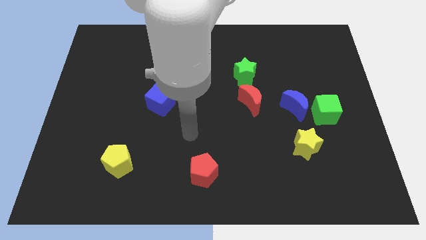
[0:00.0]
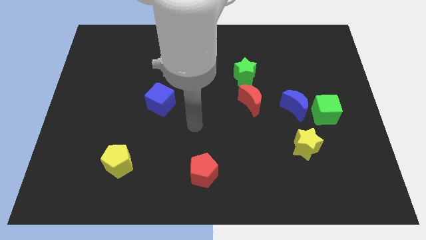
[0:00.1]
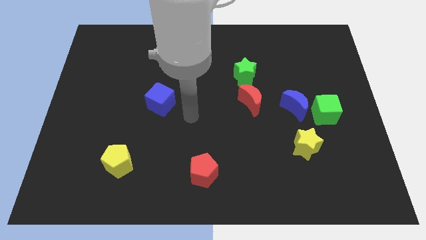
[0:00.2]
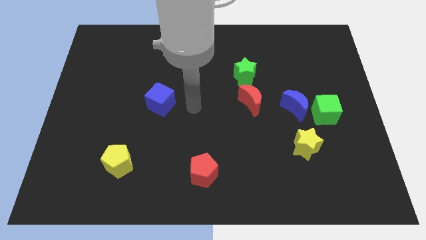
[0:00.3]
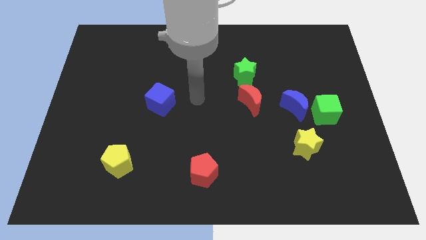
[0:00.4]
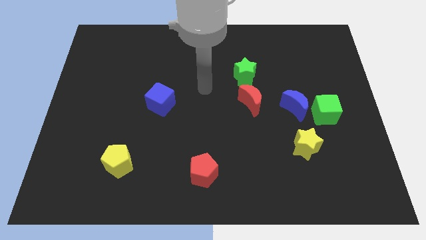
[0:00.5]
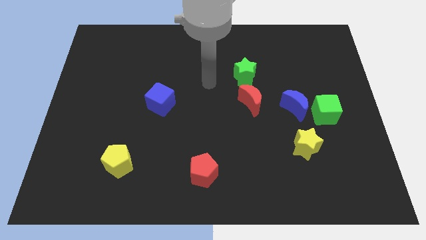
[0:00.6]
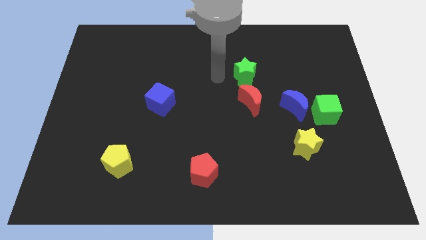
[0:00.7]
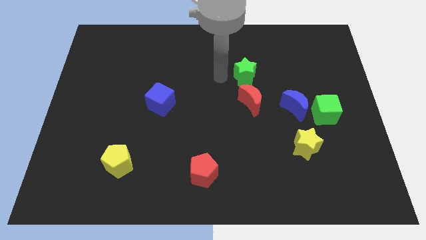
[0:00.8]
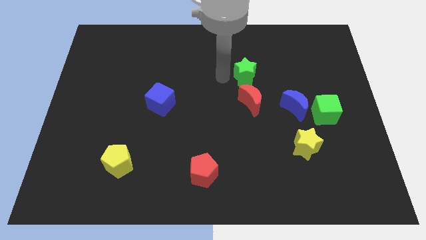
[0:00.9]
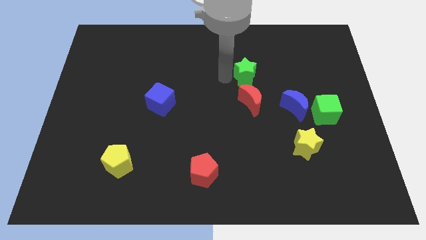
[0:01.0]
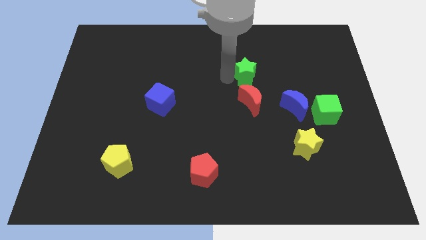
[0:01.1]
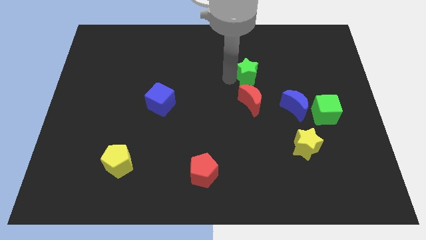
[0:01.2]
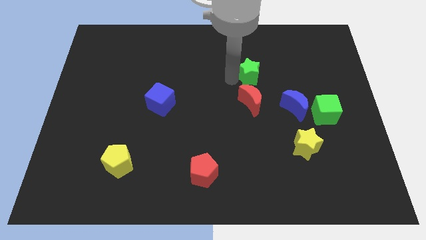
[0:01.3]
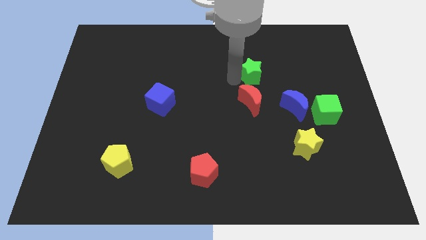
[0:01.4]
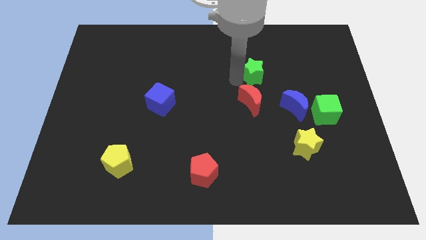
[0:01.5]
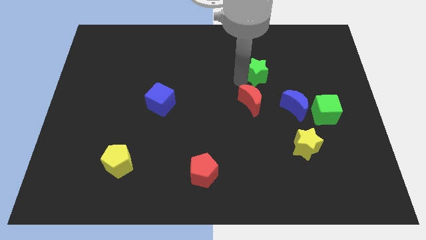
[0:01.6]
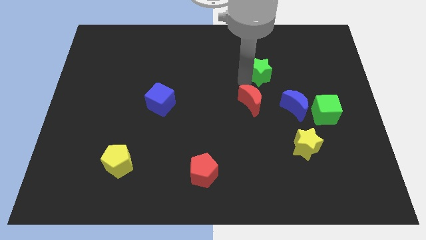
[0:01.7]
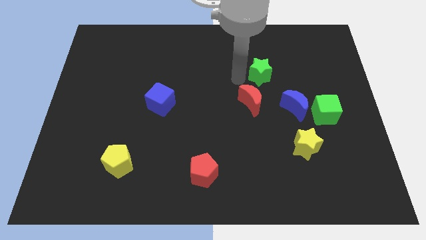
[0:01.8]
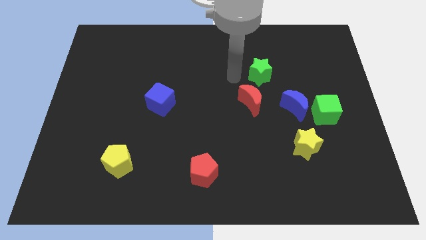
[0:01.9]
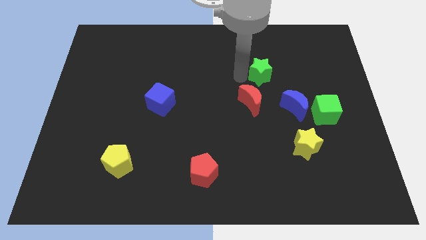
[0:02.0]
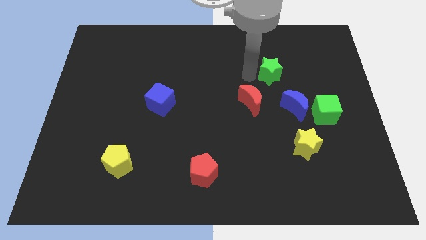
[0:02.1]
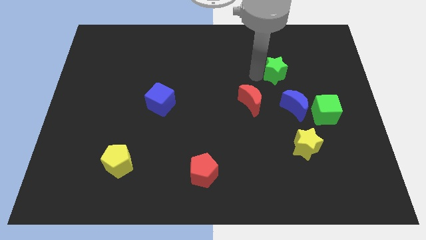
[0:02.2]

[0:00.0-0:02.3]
slide the green star a little bit to the right

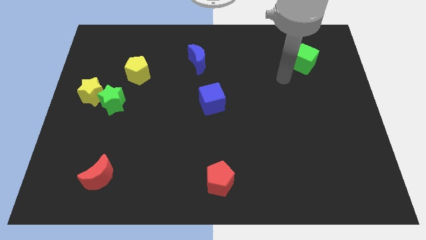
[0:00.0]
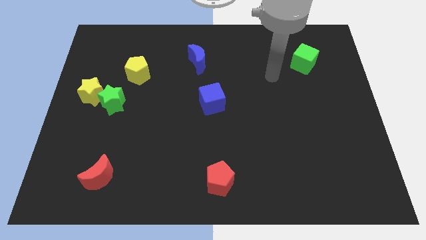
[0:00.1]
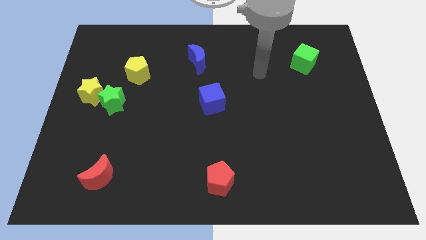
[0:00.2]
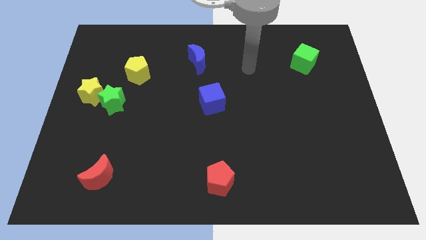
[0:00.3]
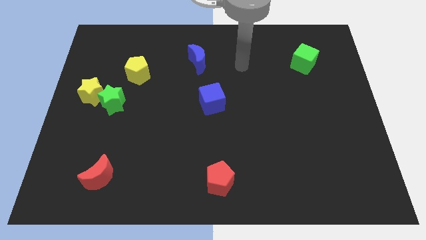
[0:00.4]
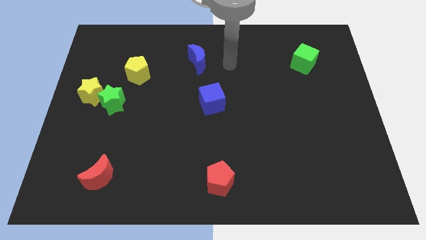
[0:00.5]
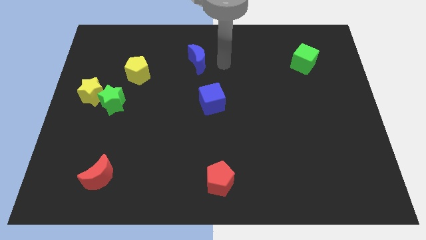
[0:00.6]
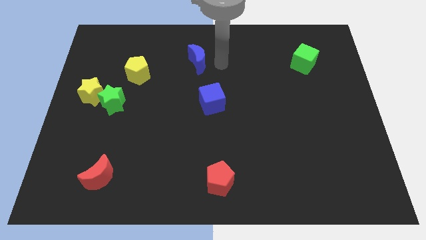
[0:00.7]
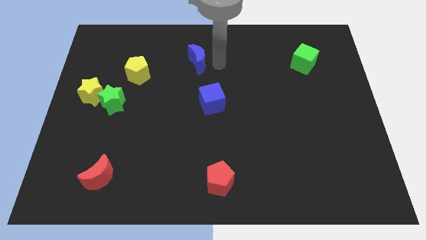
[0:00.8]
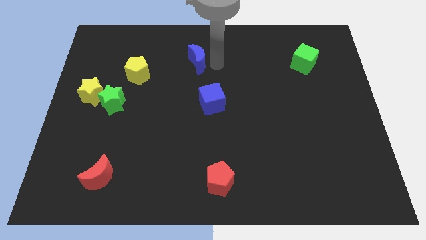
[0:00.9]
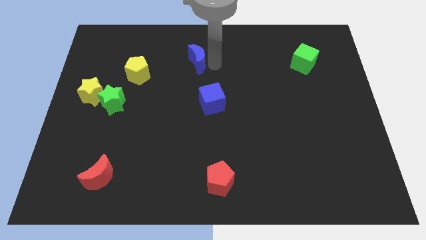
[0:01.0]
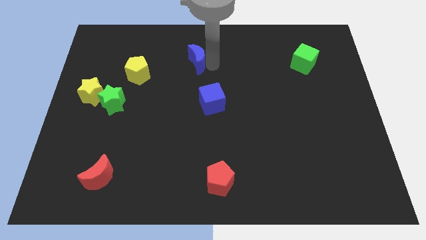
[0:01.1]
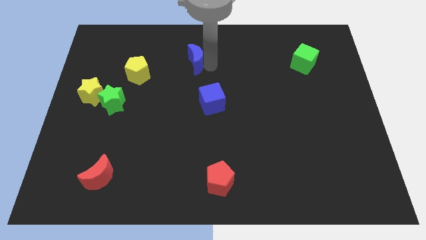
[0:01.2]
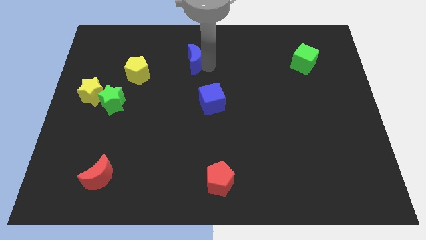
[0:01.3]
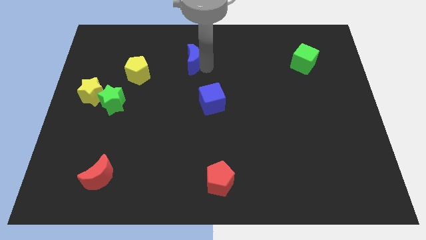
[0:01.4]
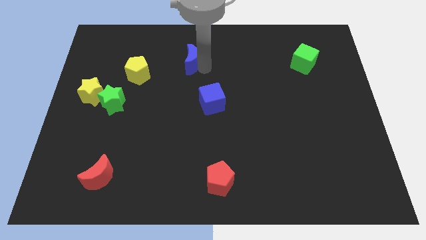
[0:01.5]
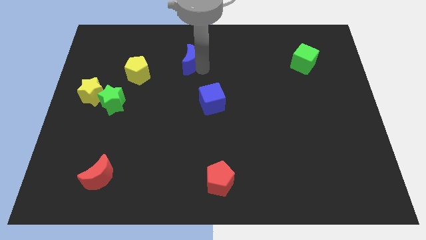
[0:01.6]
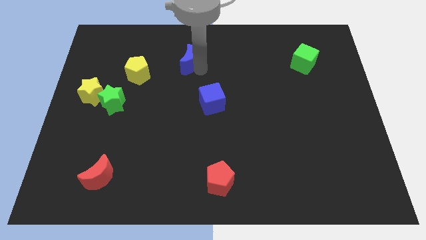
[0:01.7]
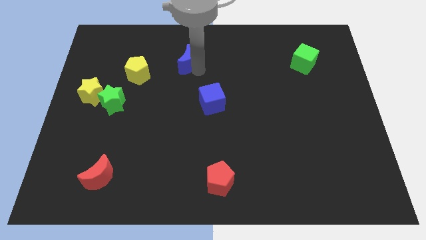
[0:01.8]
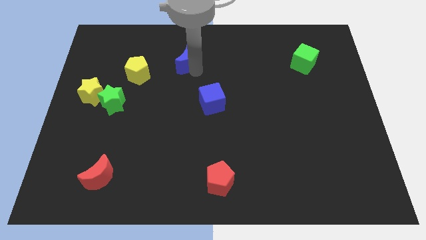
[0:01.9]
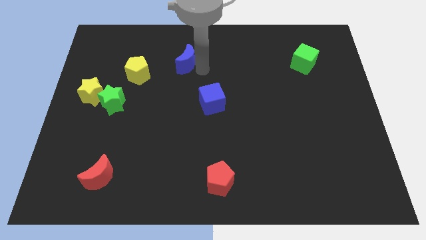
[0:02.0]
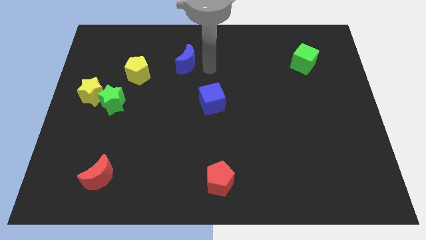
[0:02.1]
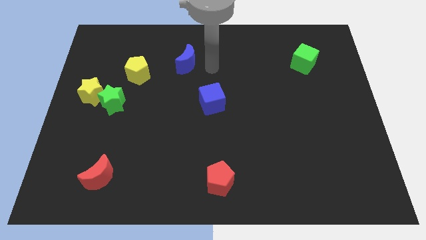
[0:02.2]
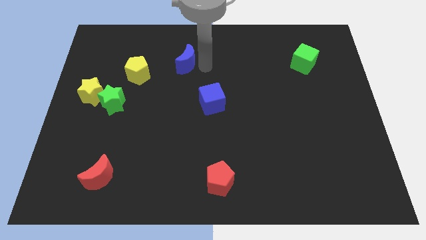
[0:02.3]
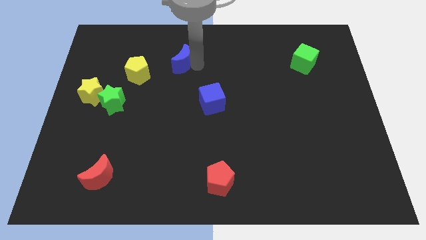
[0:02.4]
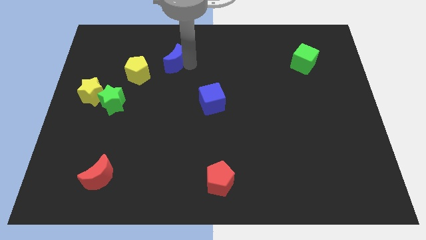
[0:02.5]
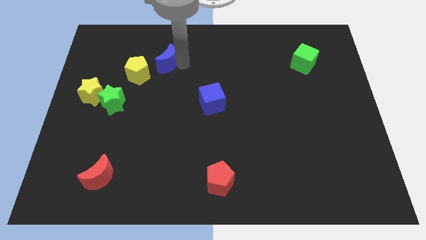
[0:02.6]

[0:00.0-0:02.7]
move the blue moon to the left slightly

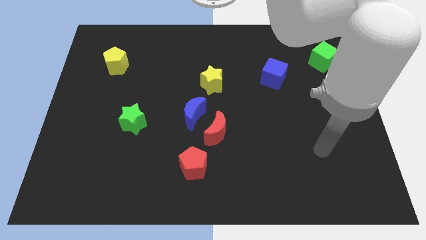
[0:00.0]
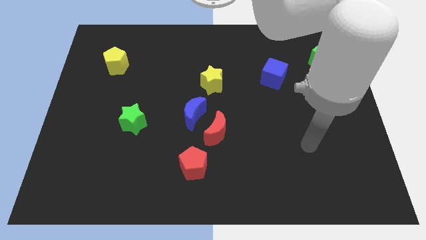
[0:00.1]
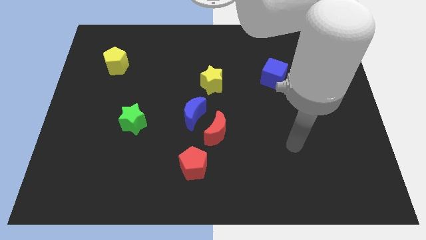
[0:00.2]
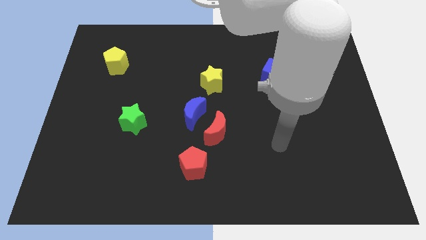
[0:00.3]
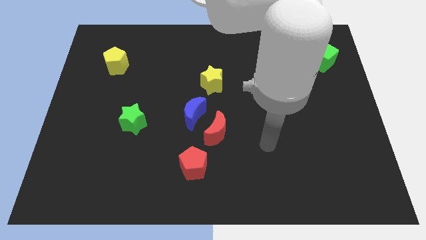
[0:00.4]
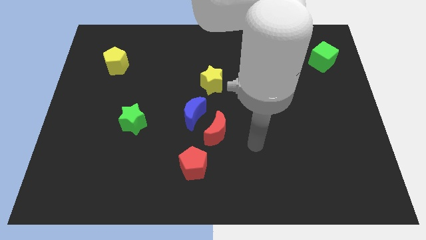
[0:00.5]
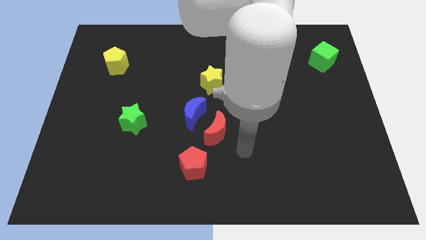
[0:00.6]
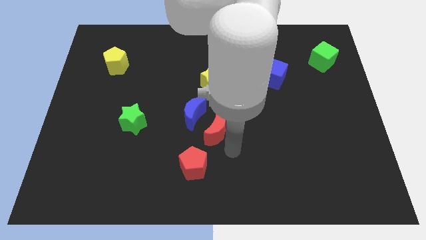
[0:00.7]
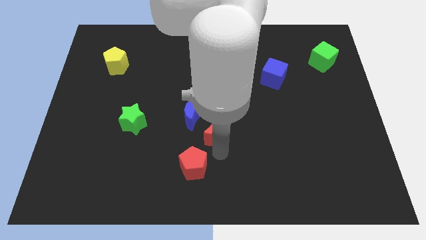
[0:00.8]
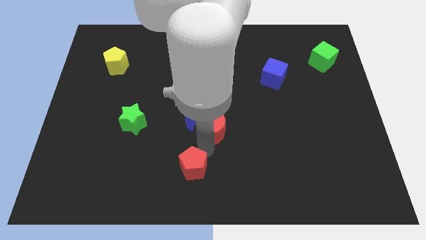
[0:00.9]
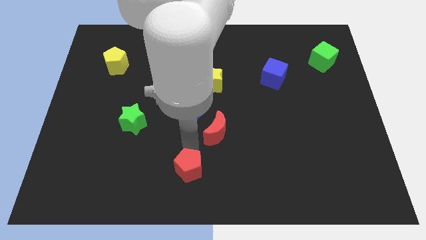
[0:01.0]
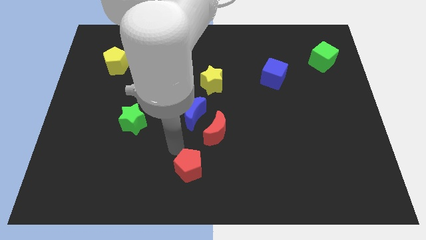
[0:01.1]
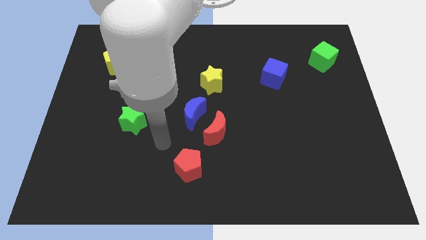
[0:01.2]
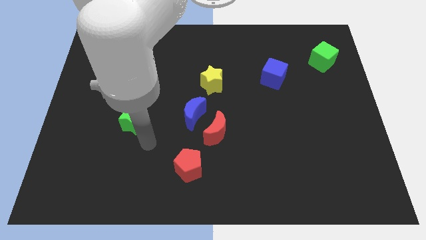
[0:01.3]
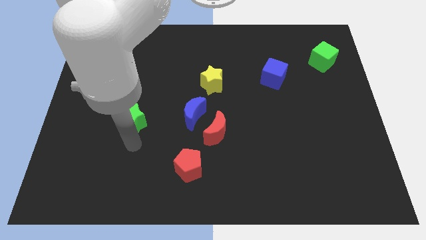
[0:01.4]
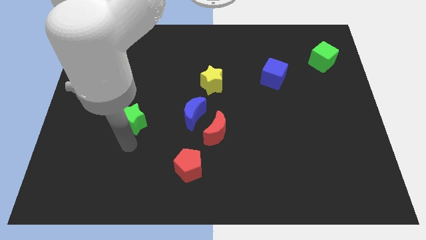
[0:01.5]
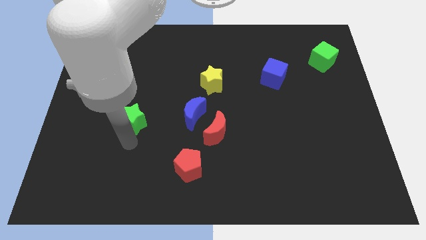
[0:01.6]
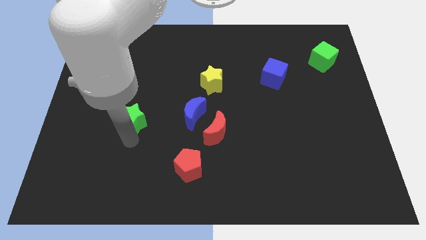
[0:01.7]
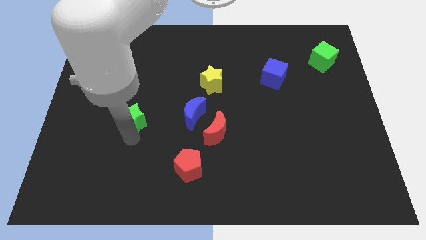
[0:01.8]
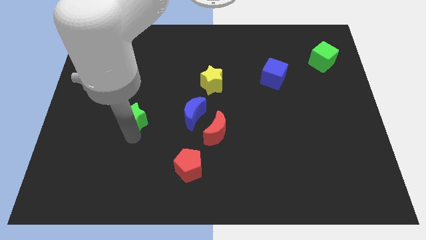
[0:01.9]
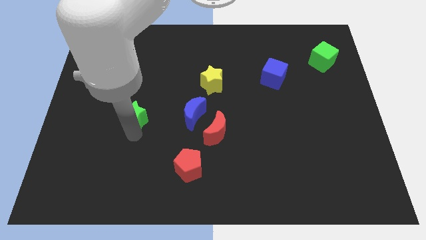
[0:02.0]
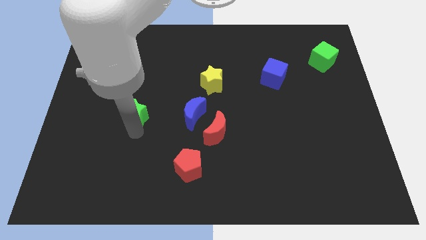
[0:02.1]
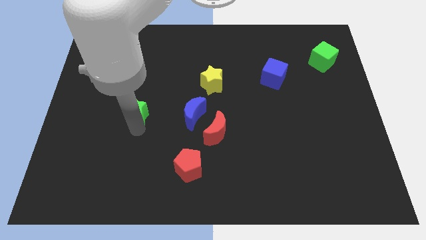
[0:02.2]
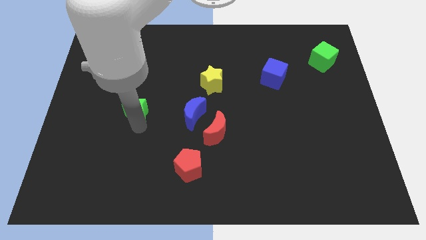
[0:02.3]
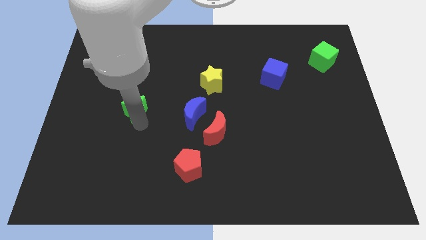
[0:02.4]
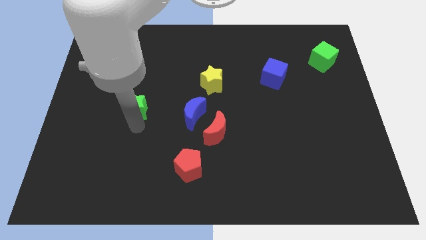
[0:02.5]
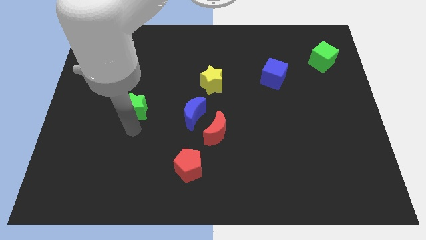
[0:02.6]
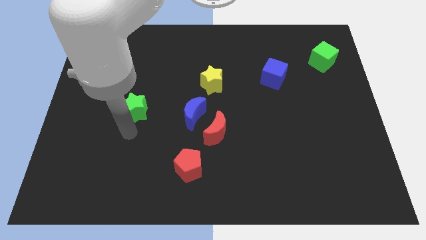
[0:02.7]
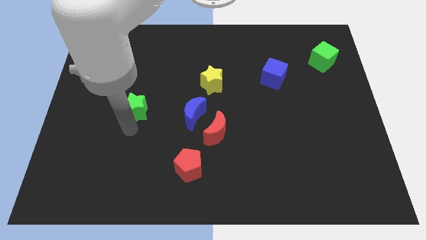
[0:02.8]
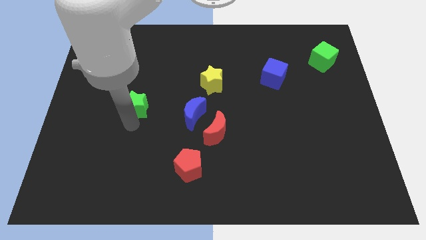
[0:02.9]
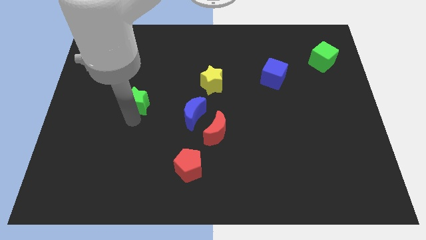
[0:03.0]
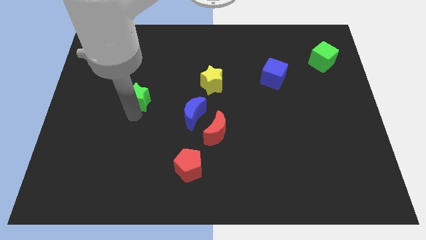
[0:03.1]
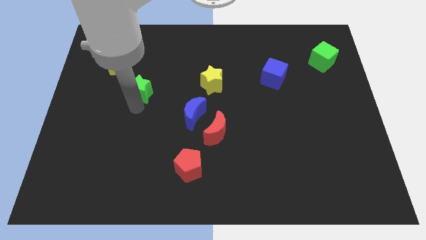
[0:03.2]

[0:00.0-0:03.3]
slide the green star up slightly
